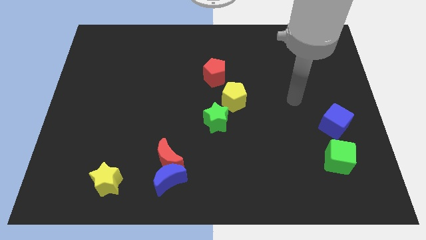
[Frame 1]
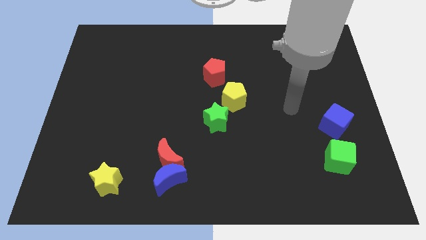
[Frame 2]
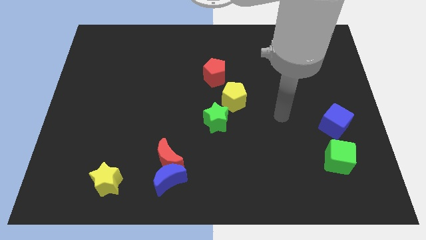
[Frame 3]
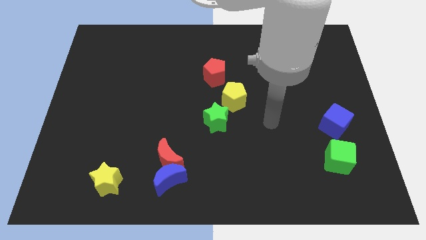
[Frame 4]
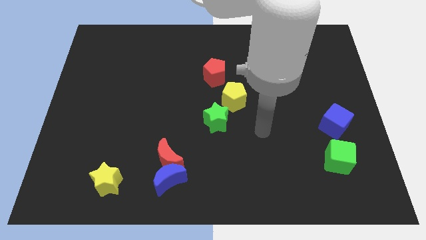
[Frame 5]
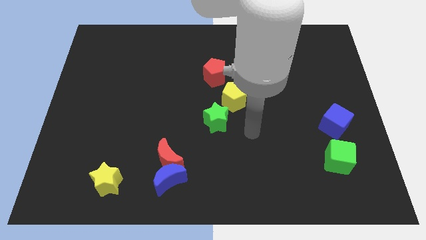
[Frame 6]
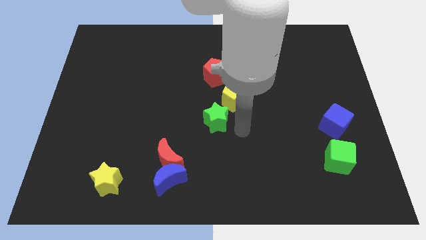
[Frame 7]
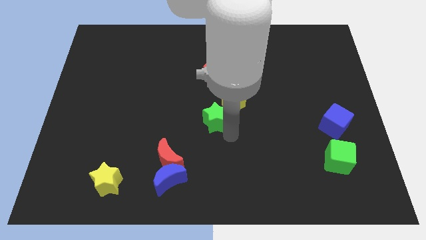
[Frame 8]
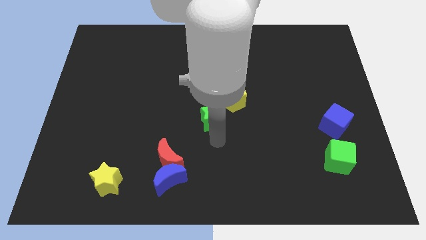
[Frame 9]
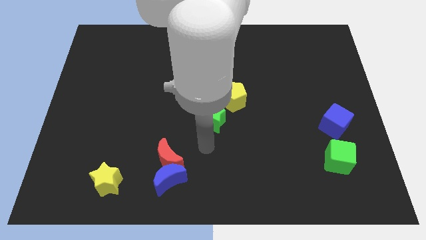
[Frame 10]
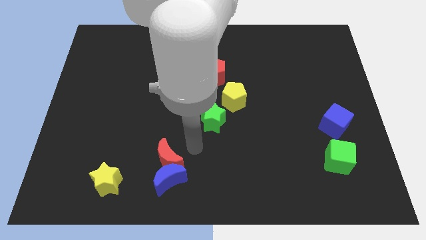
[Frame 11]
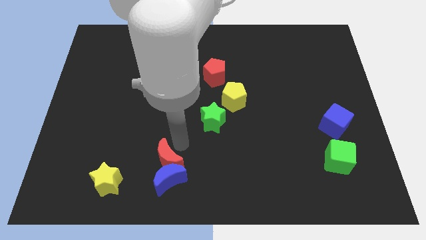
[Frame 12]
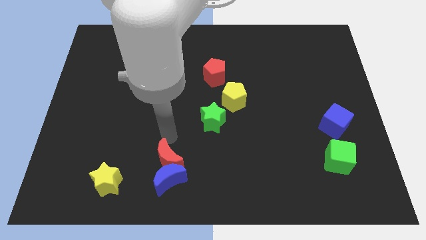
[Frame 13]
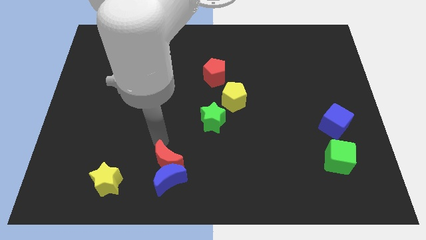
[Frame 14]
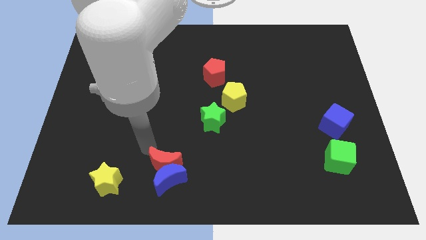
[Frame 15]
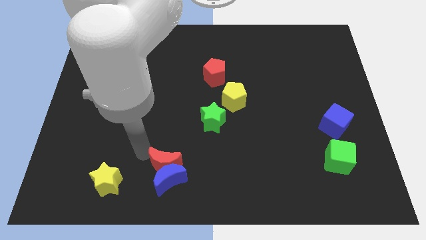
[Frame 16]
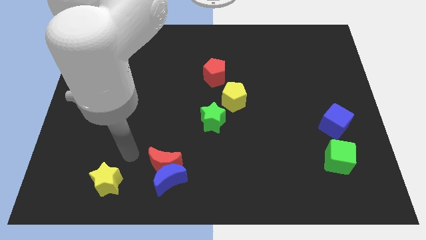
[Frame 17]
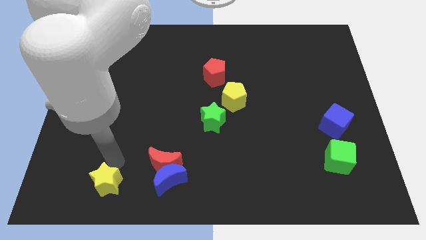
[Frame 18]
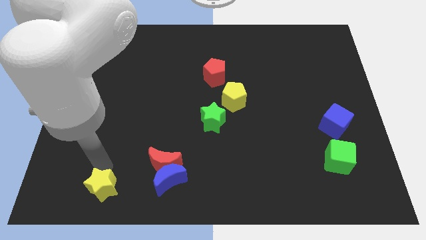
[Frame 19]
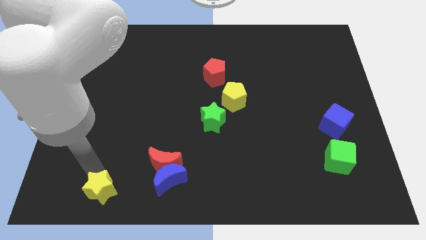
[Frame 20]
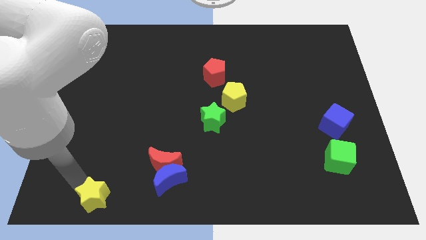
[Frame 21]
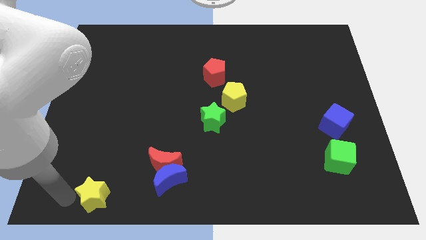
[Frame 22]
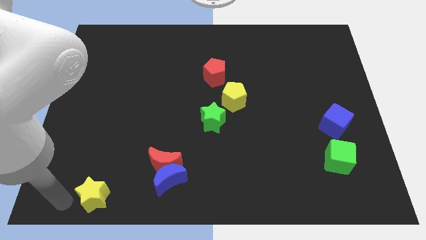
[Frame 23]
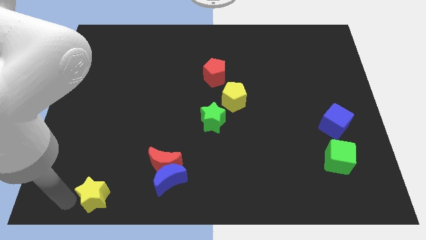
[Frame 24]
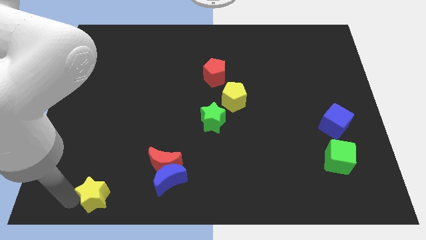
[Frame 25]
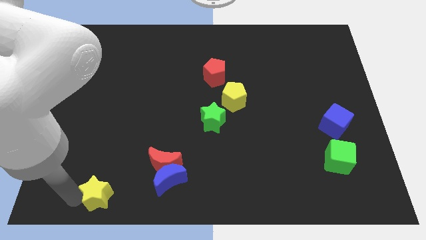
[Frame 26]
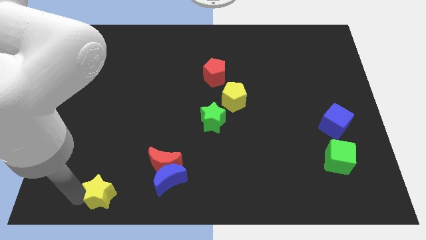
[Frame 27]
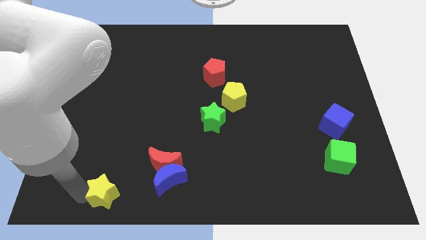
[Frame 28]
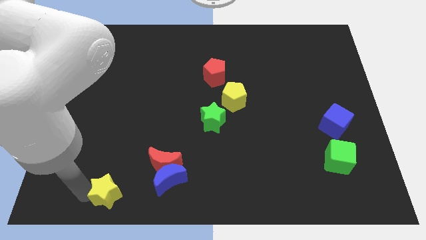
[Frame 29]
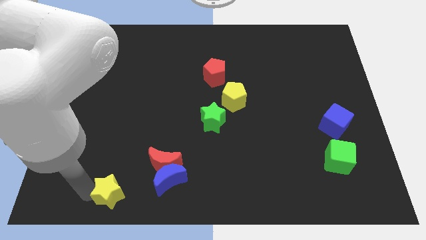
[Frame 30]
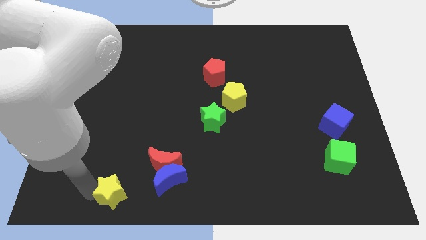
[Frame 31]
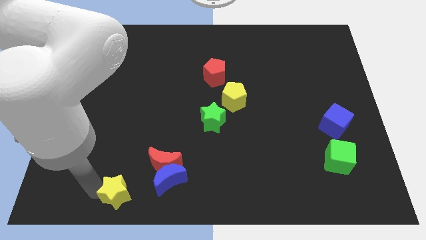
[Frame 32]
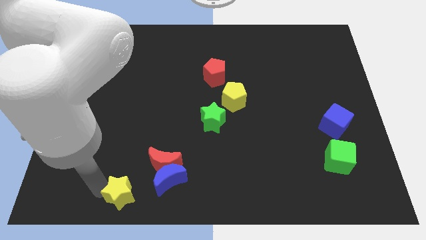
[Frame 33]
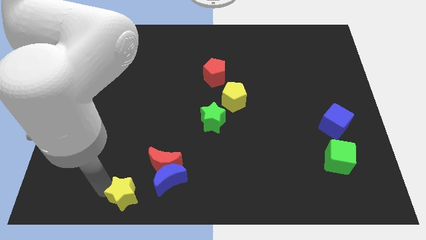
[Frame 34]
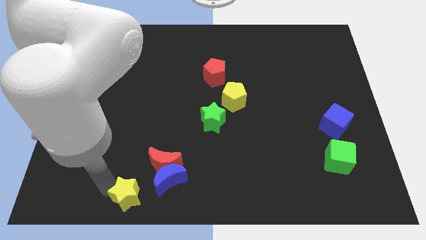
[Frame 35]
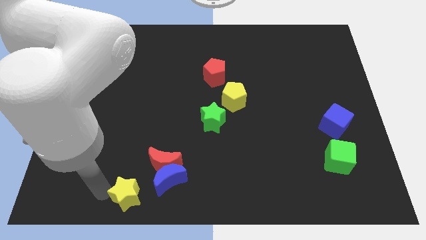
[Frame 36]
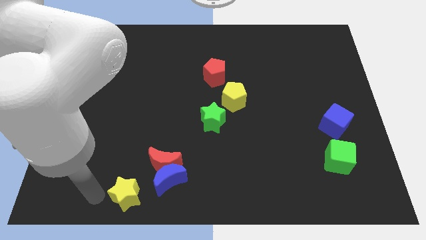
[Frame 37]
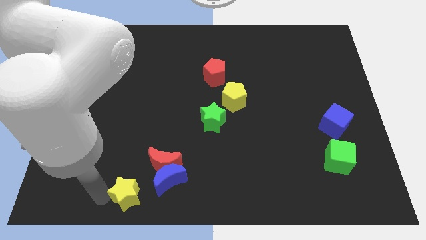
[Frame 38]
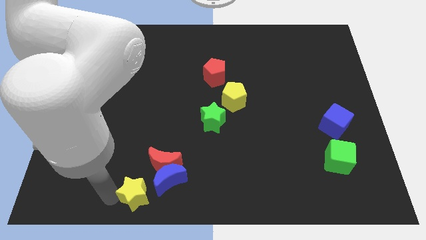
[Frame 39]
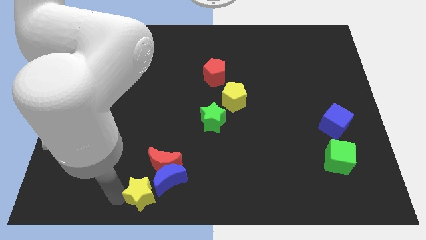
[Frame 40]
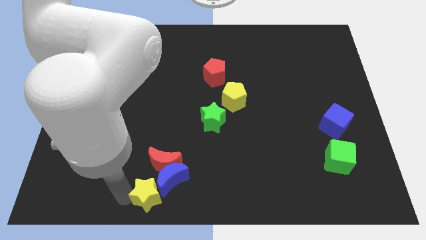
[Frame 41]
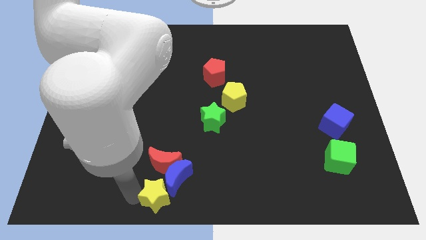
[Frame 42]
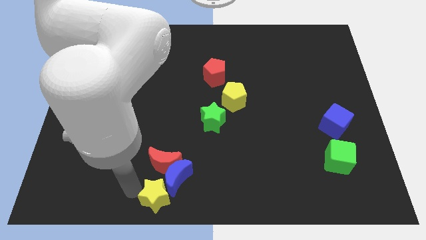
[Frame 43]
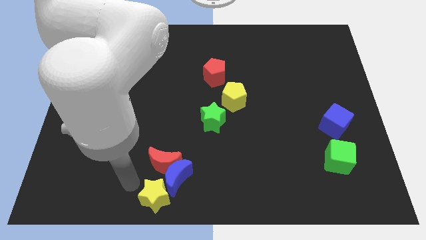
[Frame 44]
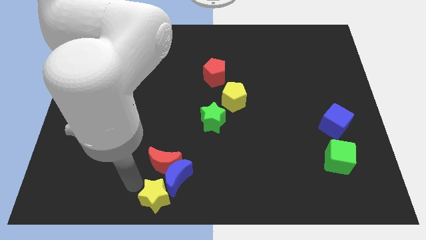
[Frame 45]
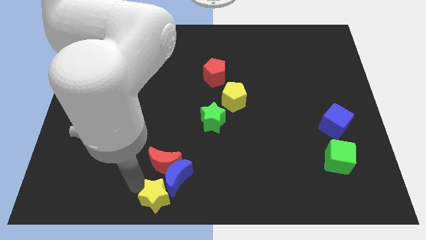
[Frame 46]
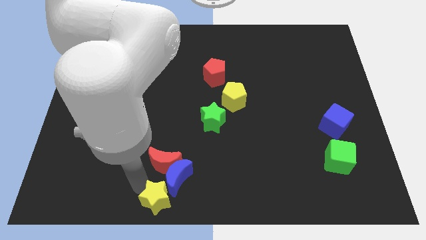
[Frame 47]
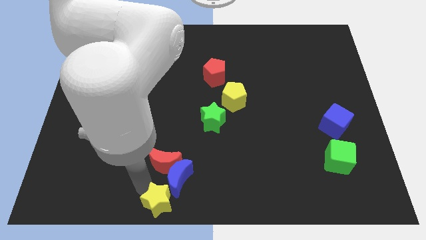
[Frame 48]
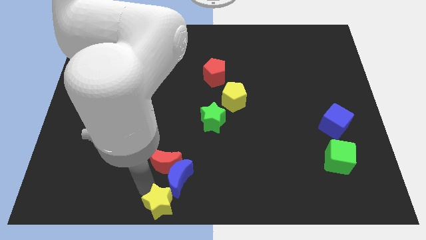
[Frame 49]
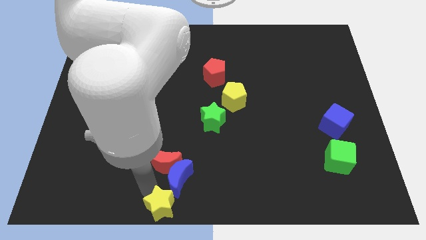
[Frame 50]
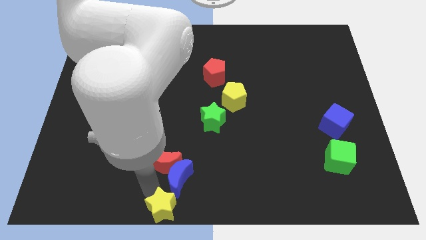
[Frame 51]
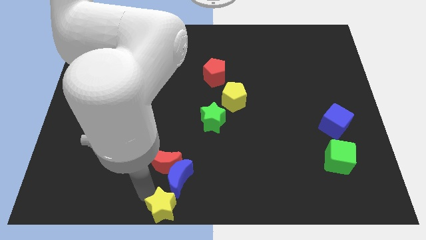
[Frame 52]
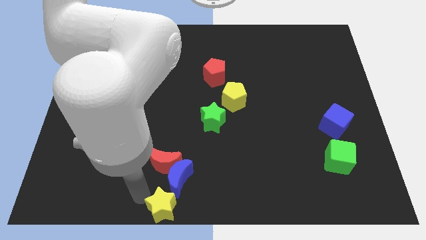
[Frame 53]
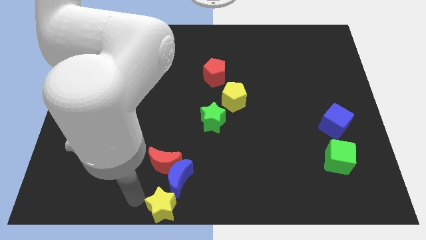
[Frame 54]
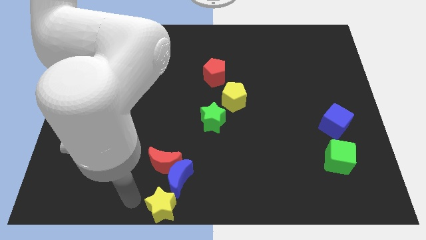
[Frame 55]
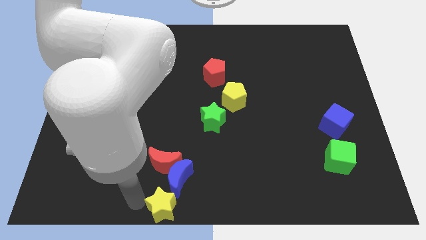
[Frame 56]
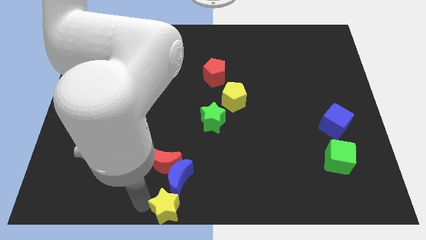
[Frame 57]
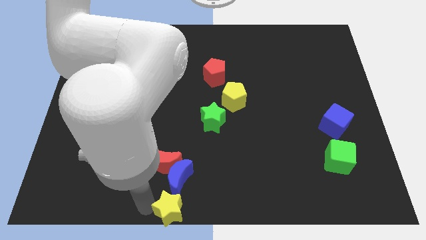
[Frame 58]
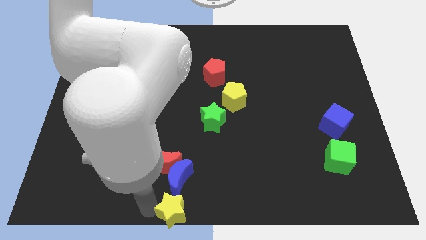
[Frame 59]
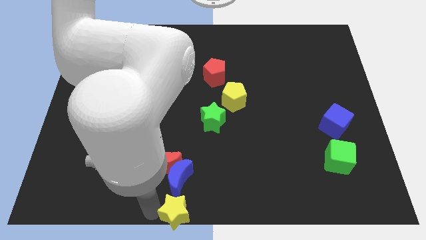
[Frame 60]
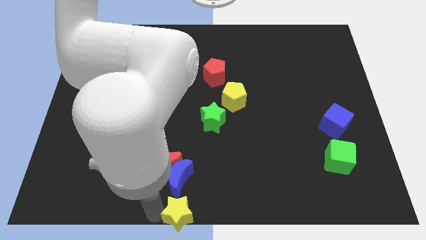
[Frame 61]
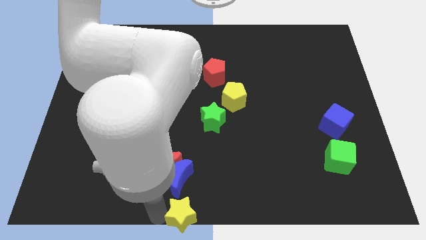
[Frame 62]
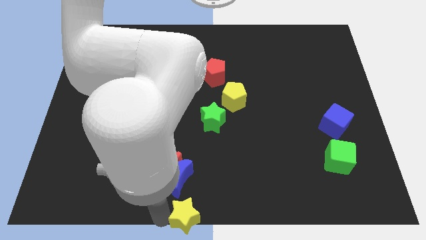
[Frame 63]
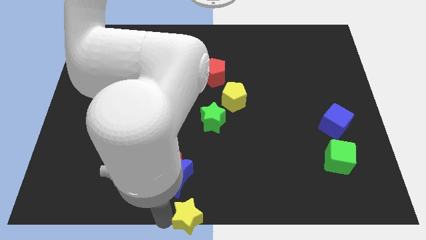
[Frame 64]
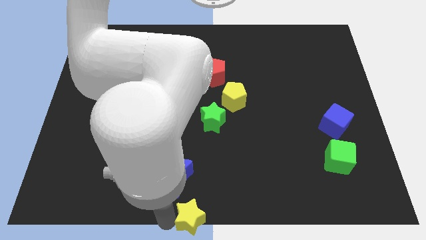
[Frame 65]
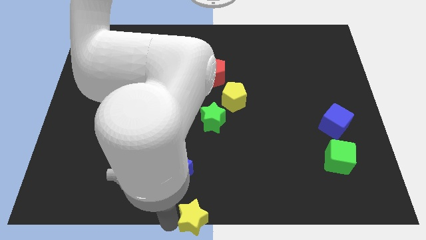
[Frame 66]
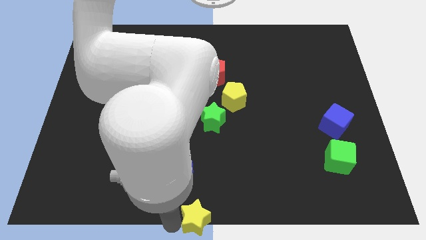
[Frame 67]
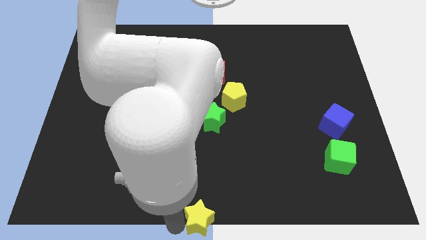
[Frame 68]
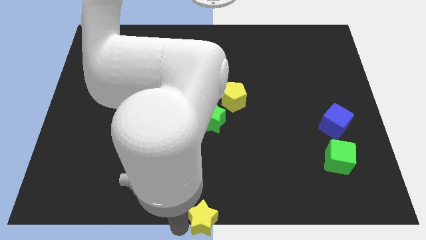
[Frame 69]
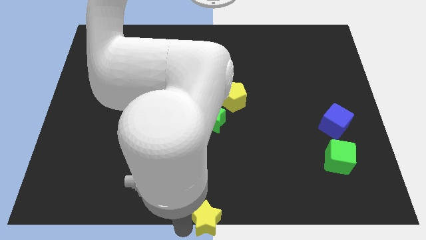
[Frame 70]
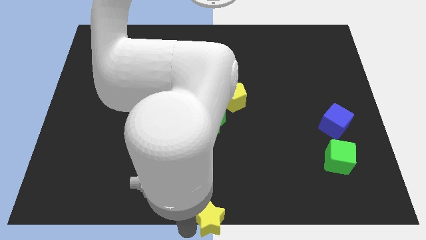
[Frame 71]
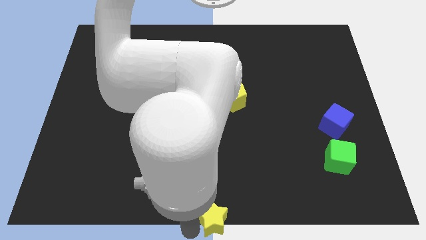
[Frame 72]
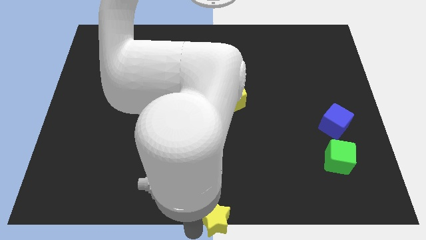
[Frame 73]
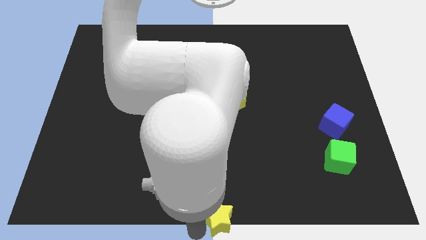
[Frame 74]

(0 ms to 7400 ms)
move the yellow star to the right
